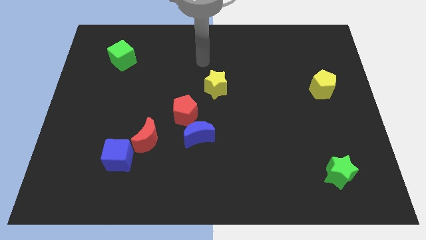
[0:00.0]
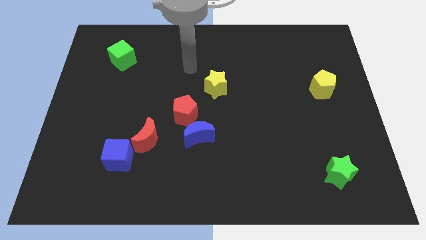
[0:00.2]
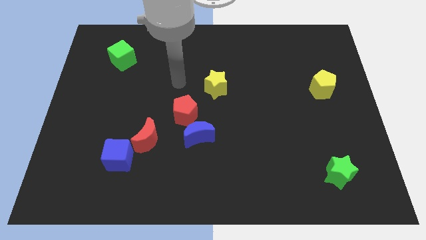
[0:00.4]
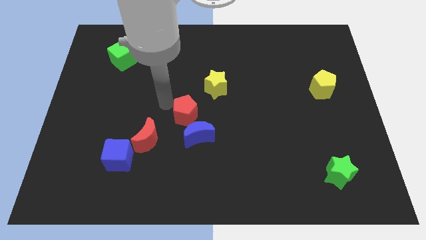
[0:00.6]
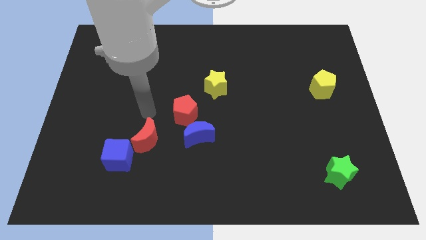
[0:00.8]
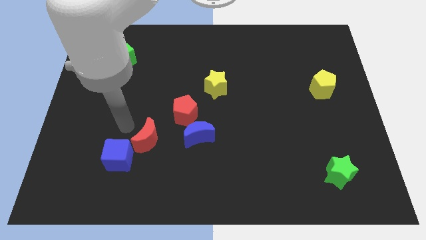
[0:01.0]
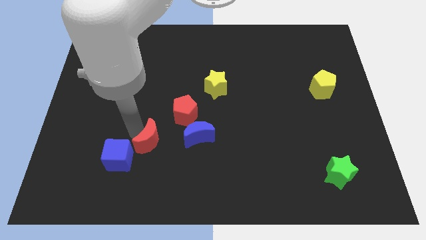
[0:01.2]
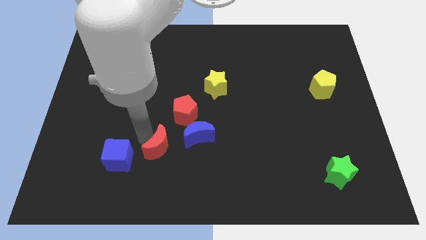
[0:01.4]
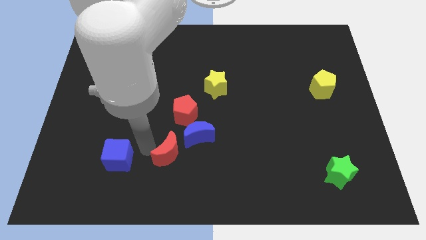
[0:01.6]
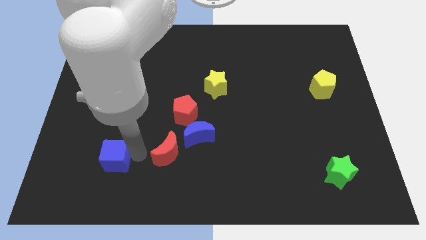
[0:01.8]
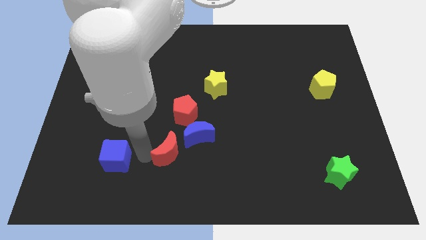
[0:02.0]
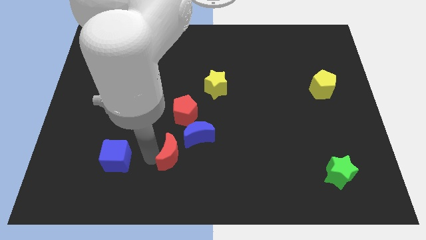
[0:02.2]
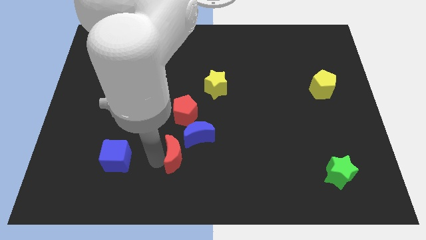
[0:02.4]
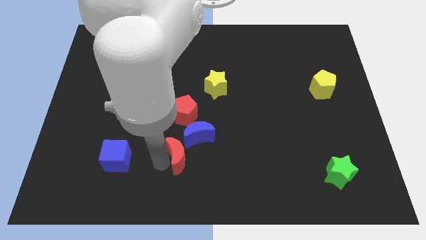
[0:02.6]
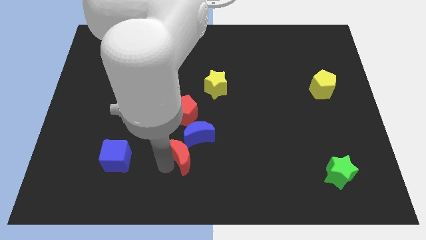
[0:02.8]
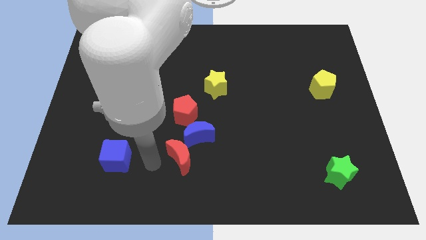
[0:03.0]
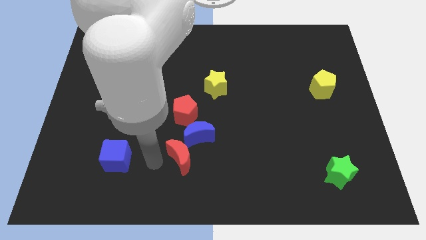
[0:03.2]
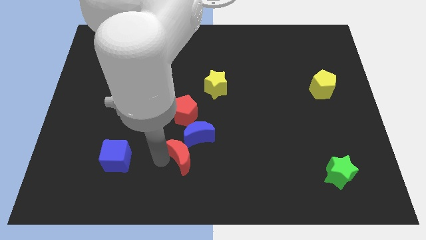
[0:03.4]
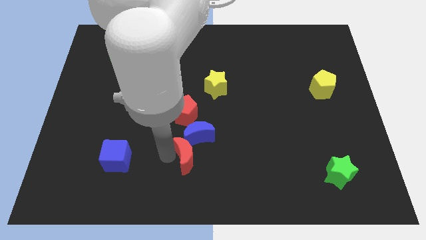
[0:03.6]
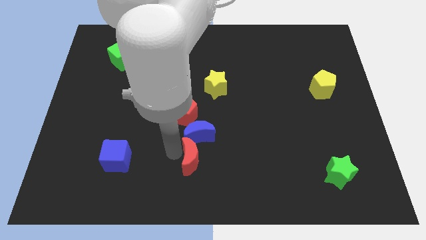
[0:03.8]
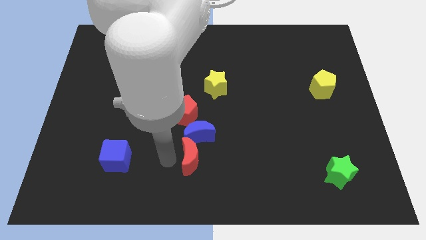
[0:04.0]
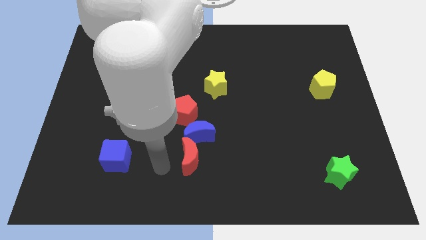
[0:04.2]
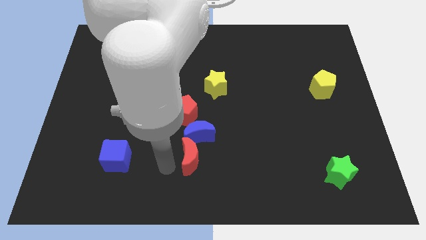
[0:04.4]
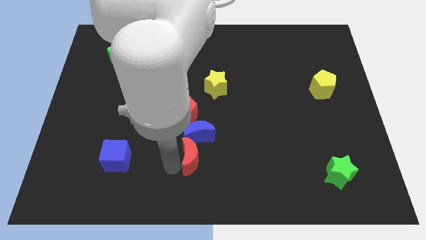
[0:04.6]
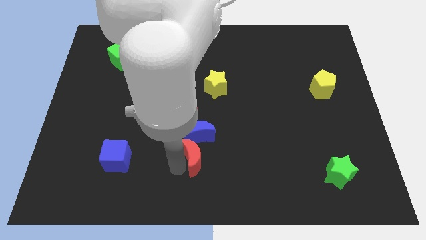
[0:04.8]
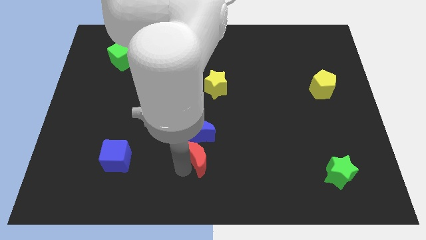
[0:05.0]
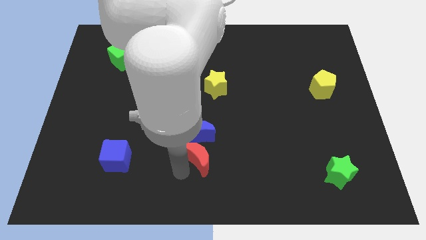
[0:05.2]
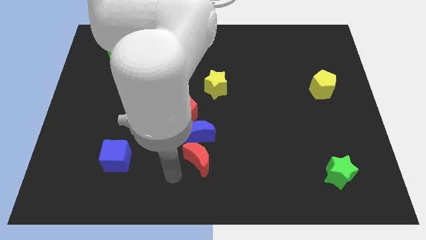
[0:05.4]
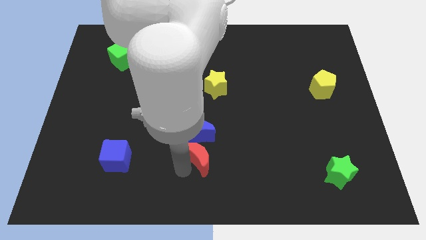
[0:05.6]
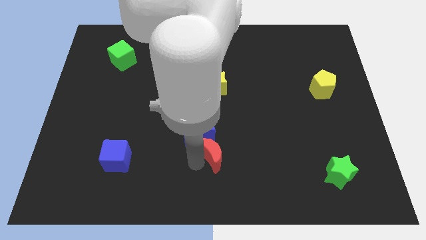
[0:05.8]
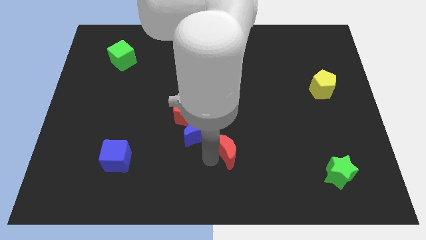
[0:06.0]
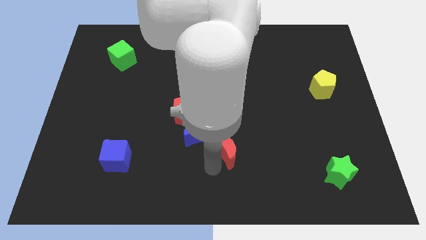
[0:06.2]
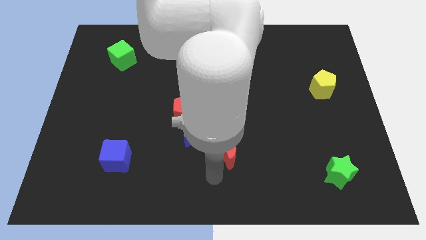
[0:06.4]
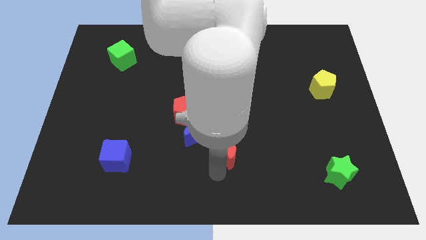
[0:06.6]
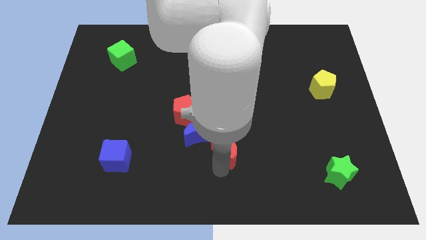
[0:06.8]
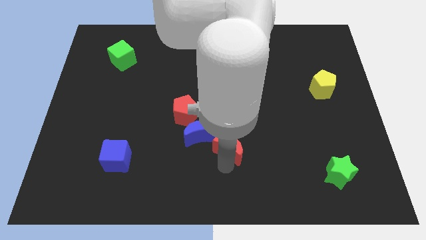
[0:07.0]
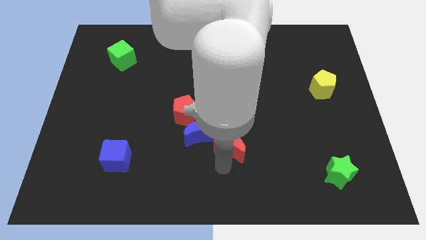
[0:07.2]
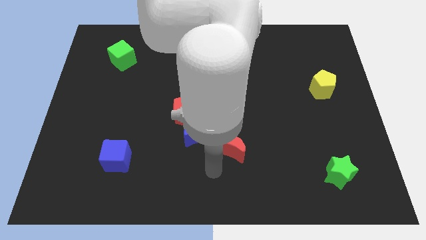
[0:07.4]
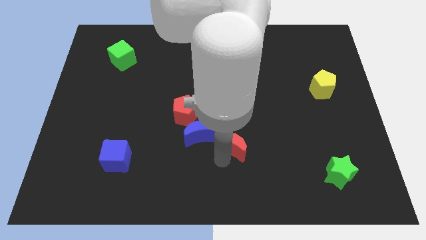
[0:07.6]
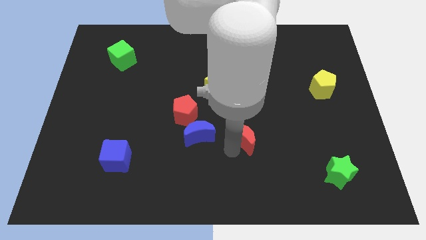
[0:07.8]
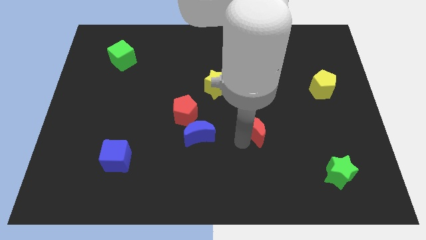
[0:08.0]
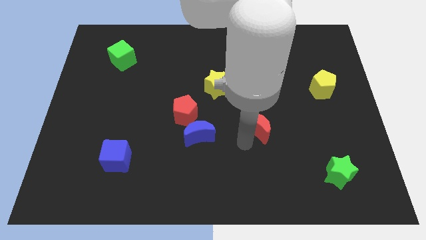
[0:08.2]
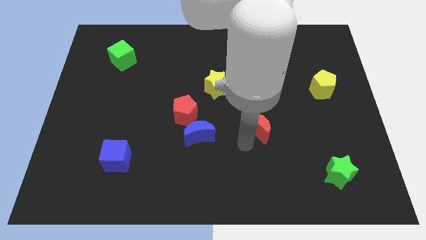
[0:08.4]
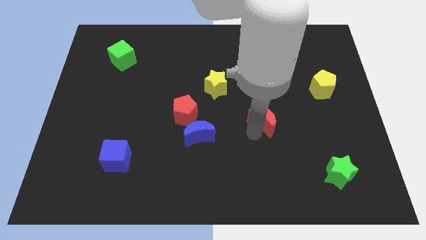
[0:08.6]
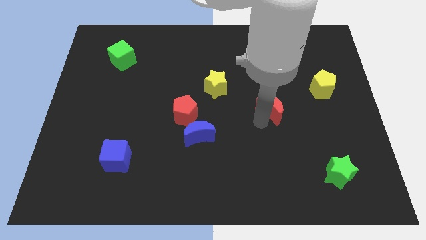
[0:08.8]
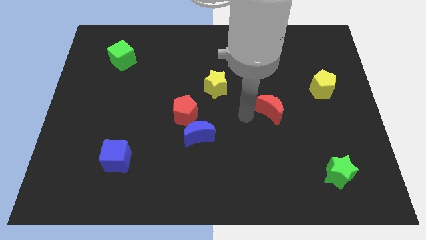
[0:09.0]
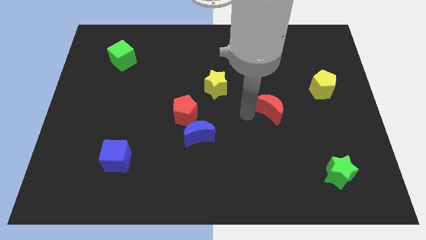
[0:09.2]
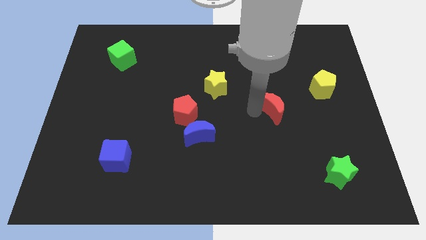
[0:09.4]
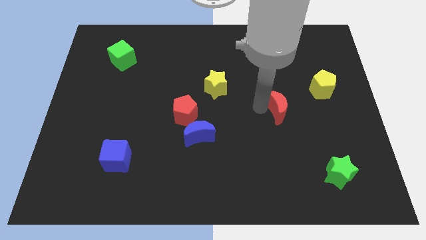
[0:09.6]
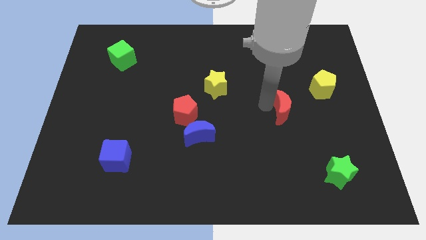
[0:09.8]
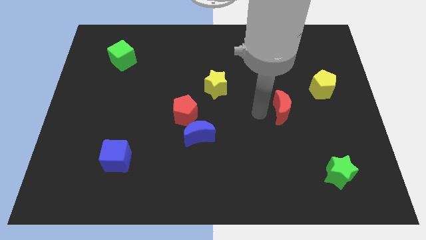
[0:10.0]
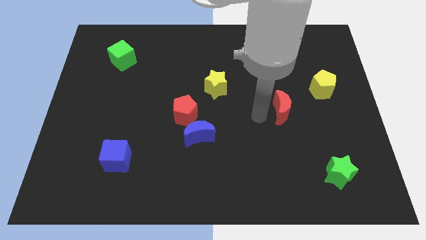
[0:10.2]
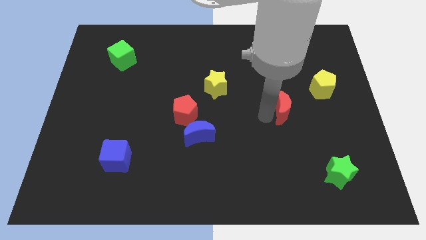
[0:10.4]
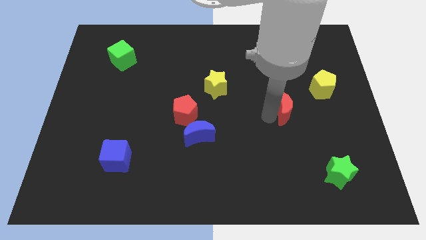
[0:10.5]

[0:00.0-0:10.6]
slide the red moon diagonally down and to the left of the yellow pentagon

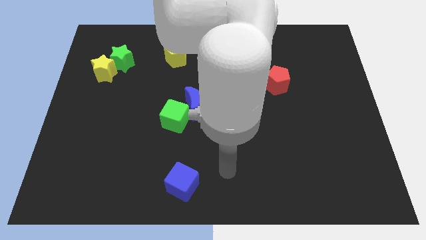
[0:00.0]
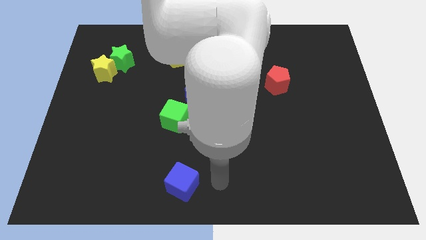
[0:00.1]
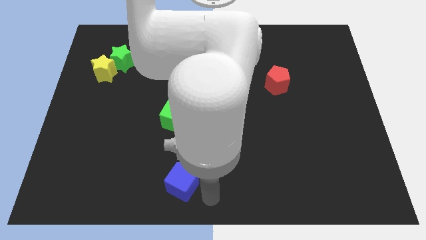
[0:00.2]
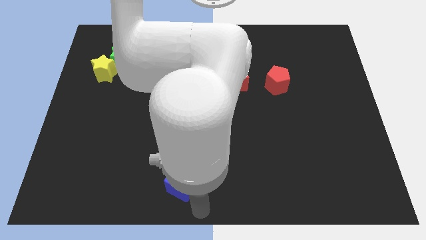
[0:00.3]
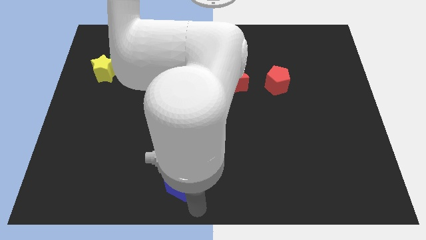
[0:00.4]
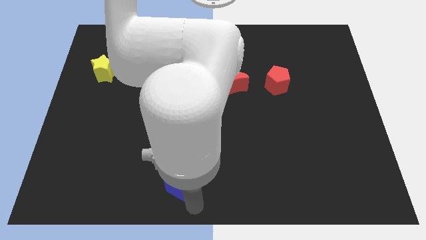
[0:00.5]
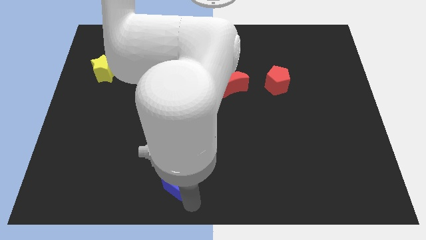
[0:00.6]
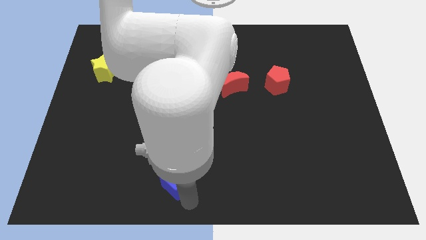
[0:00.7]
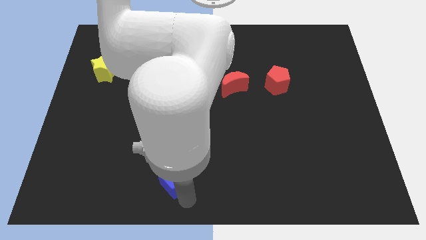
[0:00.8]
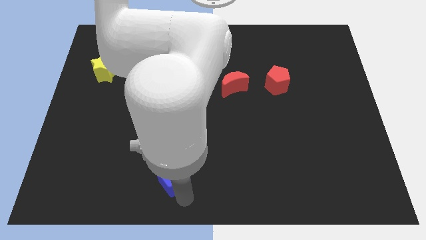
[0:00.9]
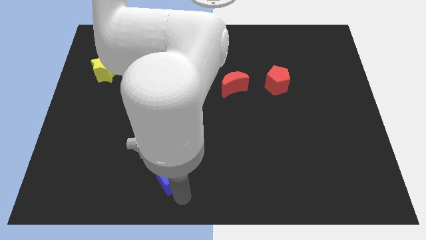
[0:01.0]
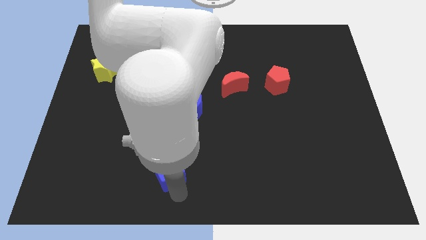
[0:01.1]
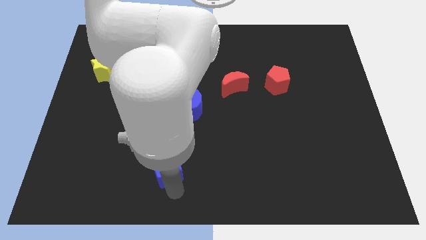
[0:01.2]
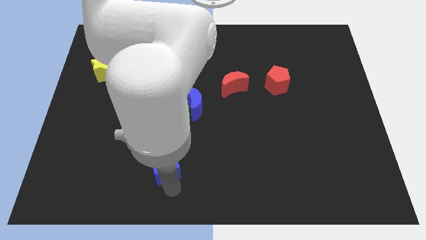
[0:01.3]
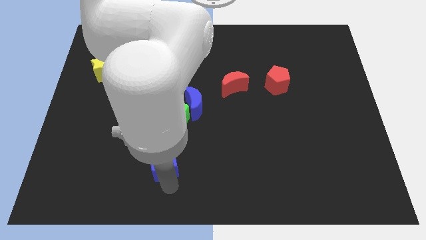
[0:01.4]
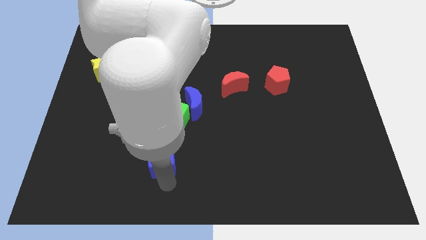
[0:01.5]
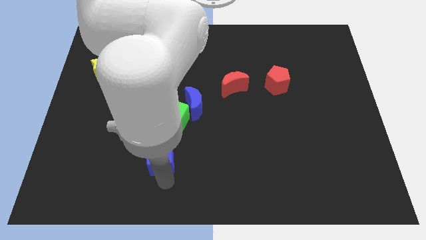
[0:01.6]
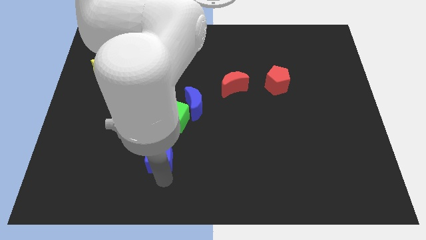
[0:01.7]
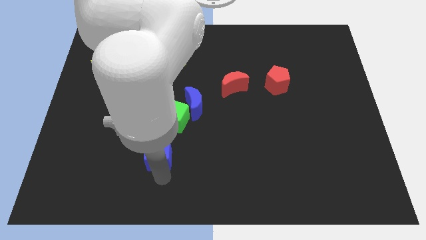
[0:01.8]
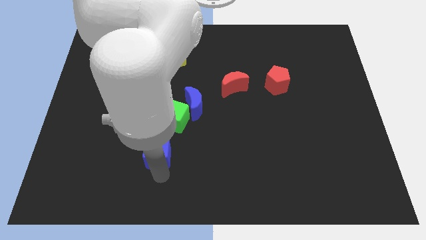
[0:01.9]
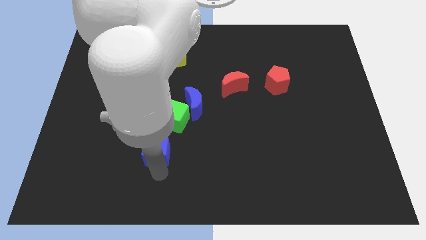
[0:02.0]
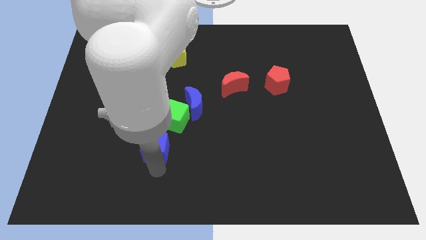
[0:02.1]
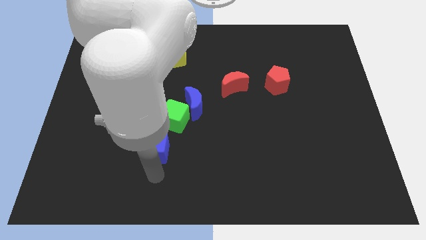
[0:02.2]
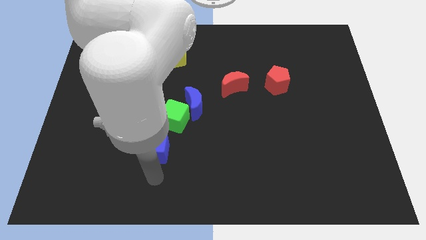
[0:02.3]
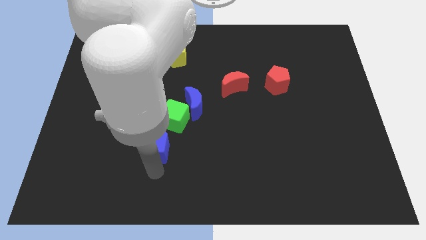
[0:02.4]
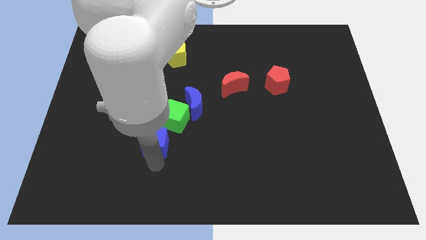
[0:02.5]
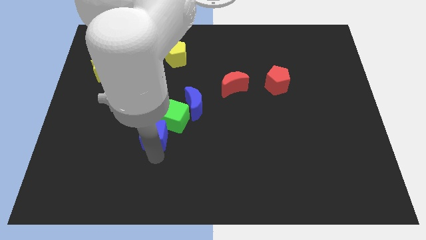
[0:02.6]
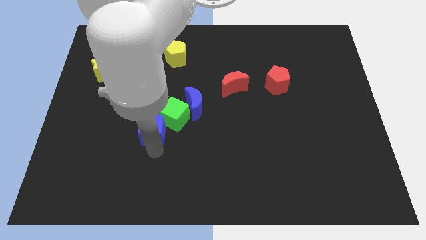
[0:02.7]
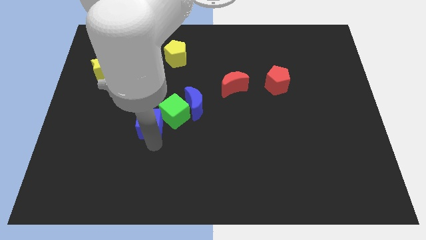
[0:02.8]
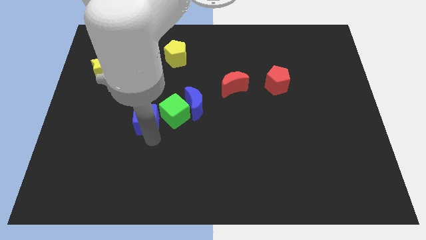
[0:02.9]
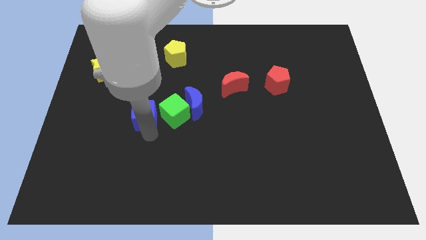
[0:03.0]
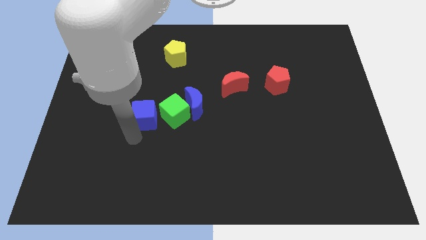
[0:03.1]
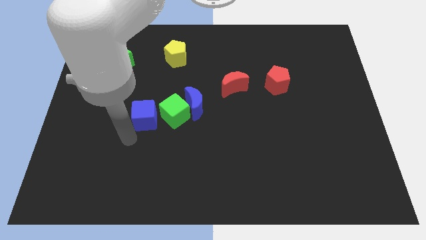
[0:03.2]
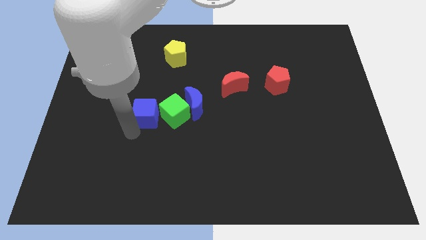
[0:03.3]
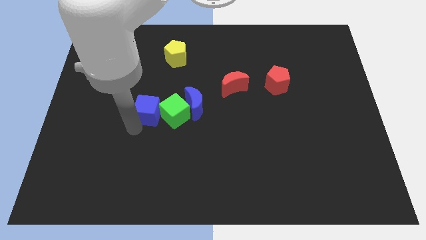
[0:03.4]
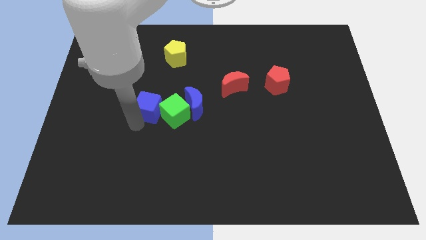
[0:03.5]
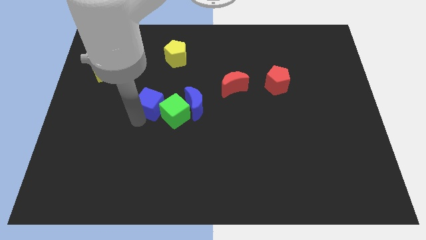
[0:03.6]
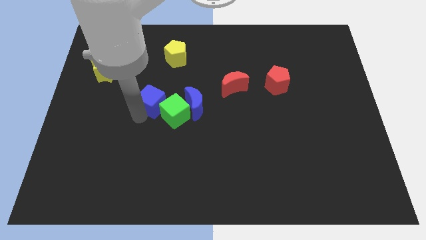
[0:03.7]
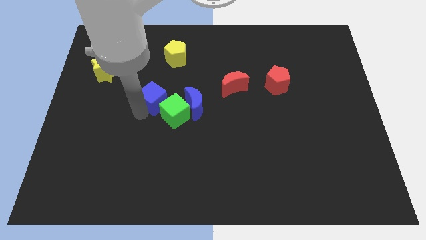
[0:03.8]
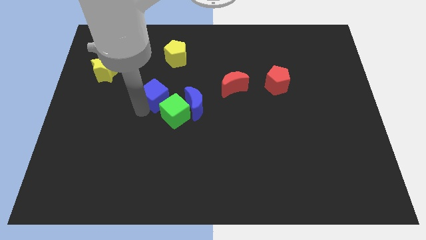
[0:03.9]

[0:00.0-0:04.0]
slide the blue cube above the green cube
